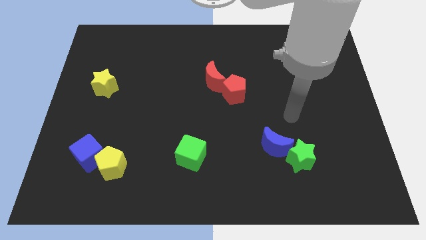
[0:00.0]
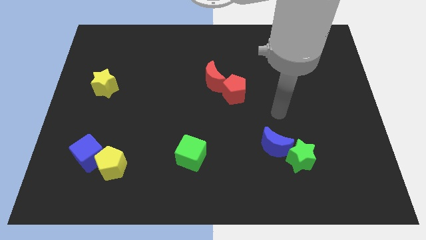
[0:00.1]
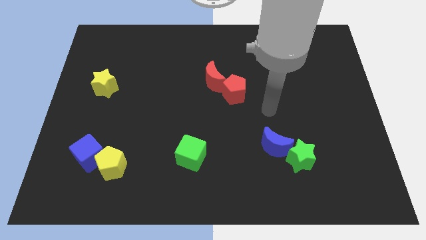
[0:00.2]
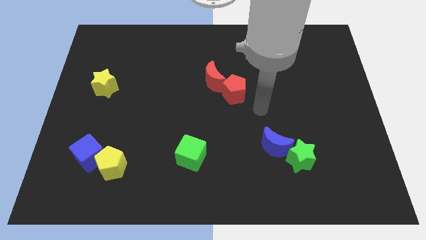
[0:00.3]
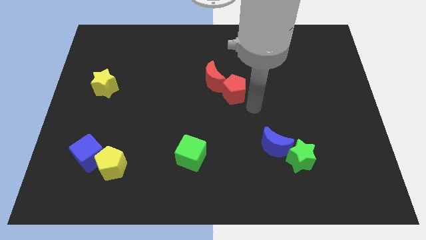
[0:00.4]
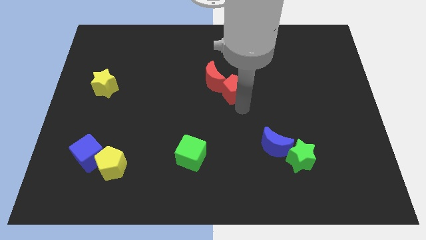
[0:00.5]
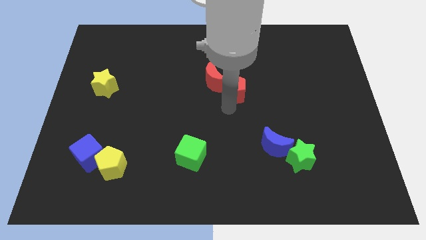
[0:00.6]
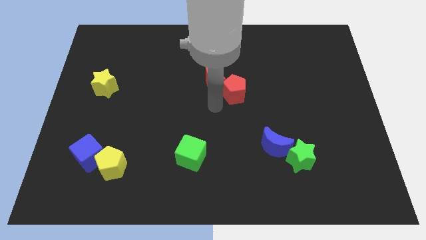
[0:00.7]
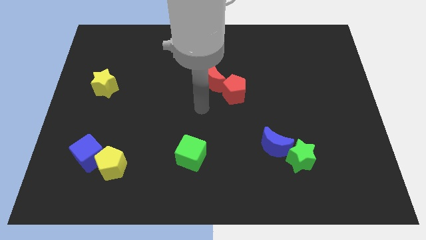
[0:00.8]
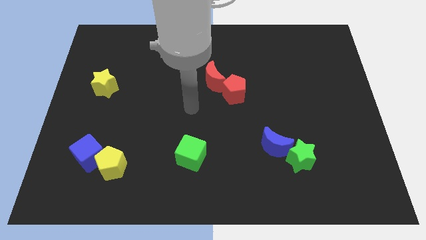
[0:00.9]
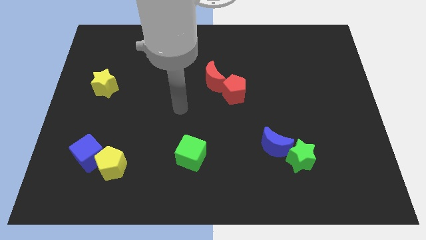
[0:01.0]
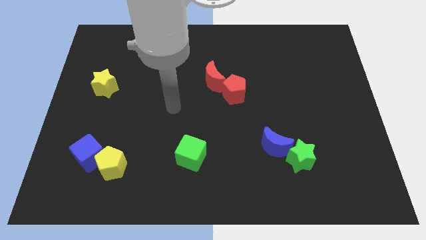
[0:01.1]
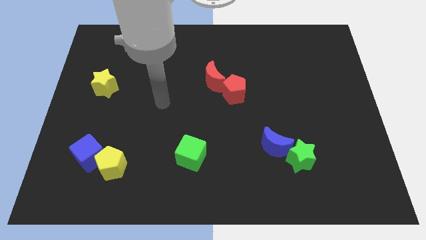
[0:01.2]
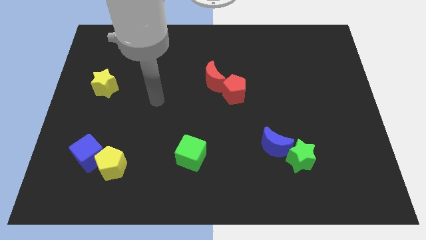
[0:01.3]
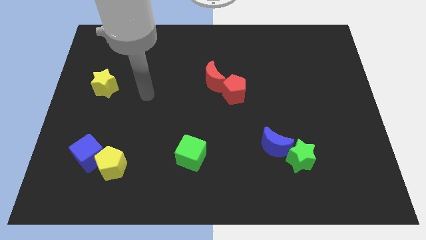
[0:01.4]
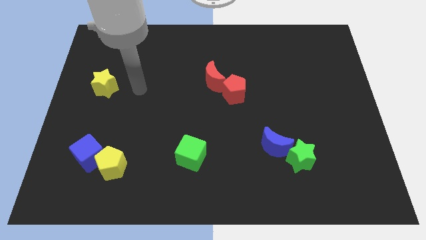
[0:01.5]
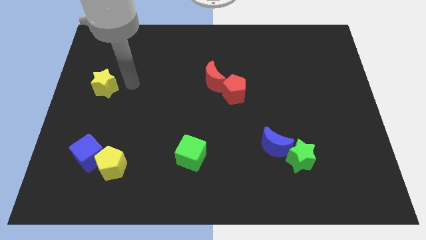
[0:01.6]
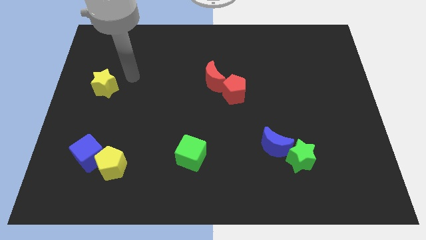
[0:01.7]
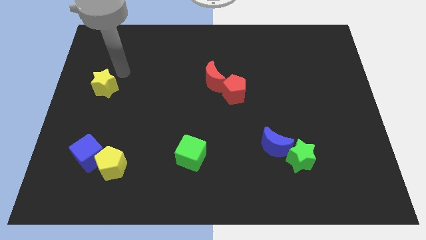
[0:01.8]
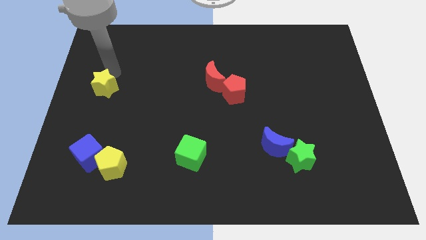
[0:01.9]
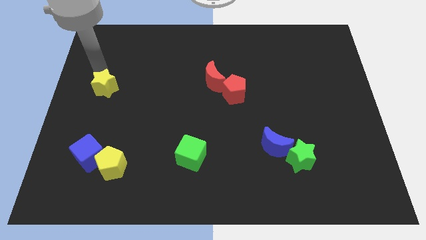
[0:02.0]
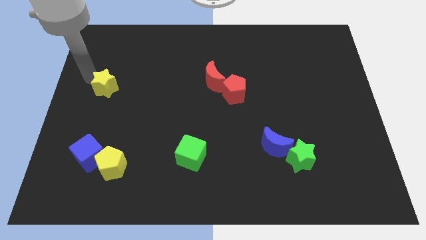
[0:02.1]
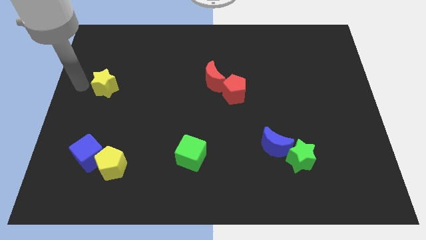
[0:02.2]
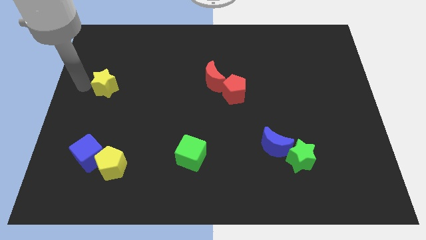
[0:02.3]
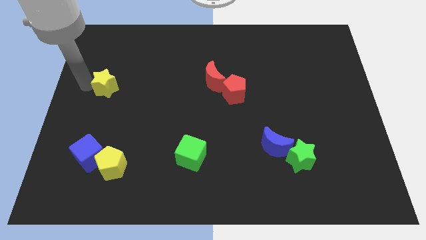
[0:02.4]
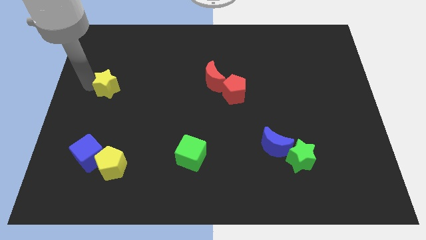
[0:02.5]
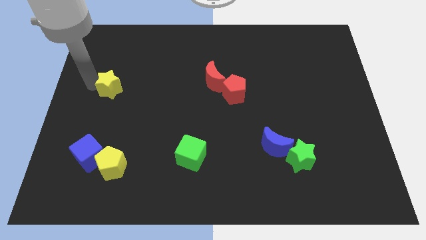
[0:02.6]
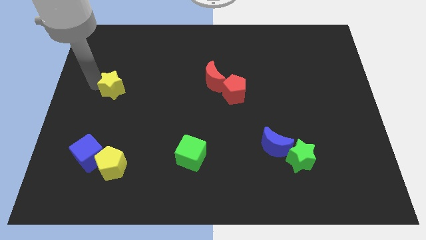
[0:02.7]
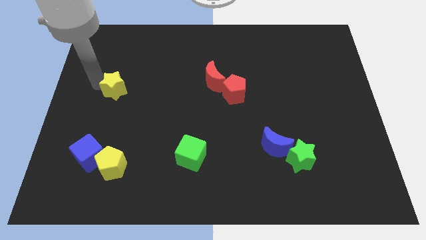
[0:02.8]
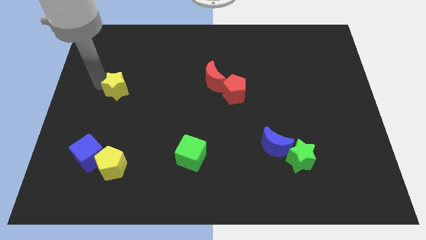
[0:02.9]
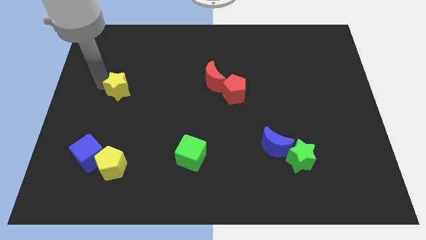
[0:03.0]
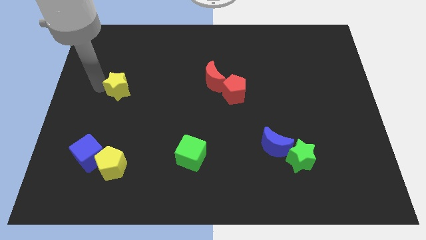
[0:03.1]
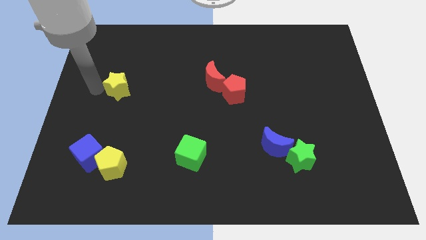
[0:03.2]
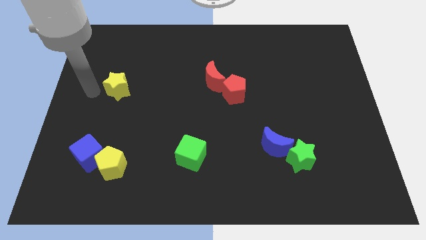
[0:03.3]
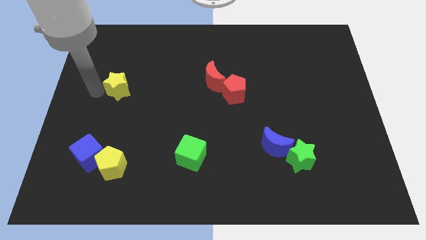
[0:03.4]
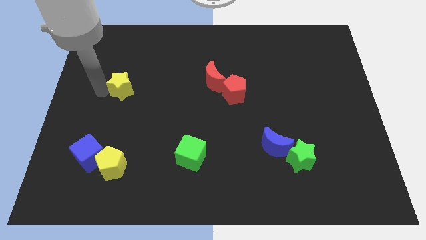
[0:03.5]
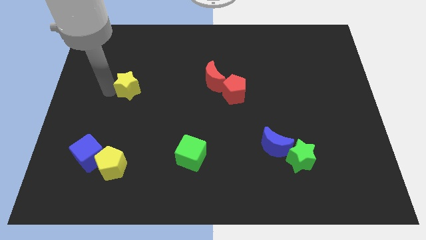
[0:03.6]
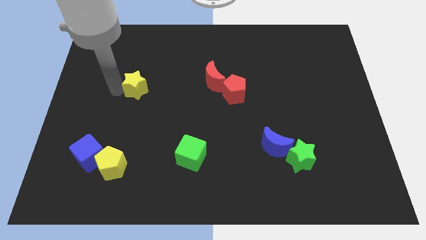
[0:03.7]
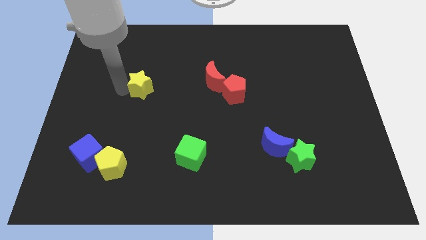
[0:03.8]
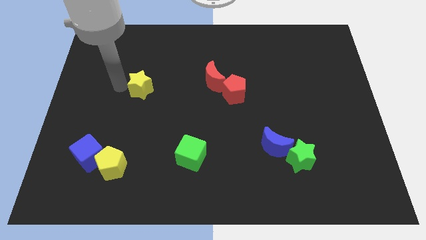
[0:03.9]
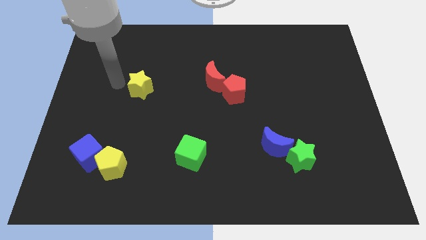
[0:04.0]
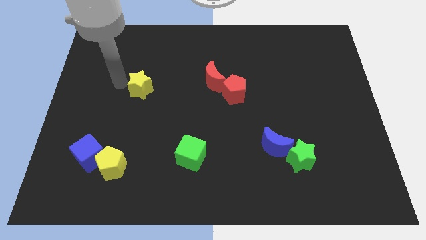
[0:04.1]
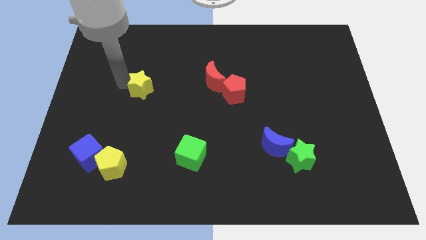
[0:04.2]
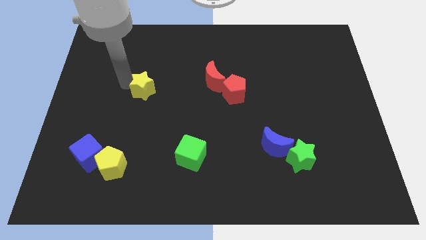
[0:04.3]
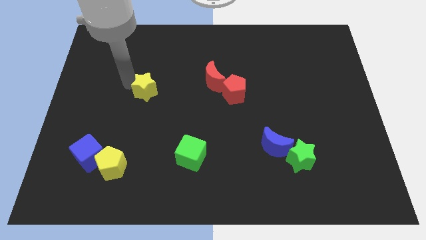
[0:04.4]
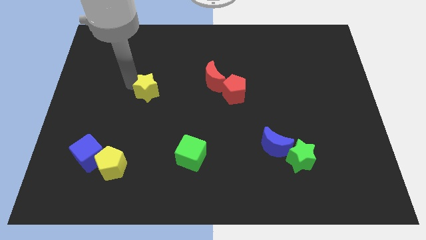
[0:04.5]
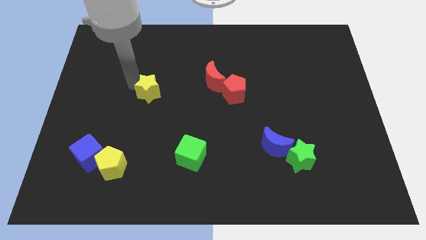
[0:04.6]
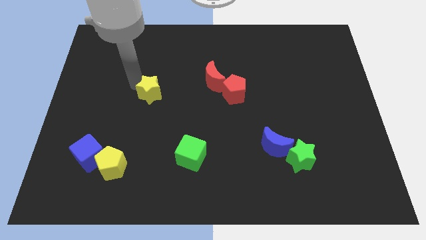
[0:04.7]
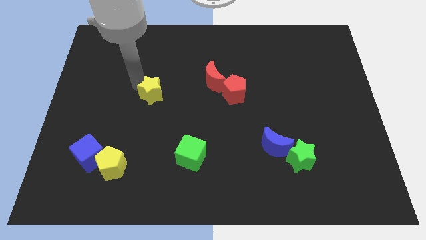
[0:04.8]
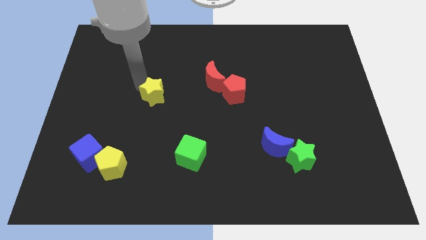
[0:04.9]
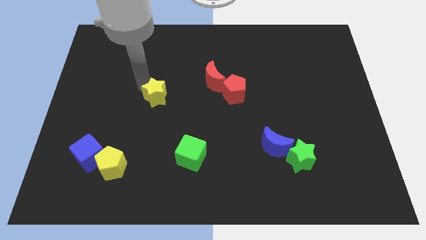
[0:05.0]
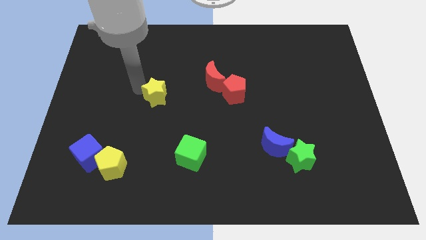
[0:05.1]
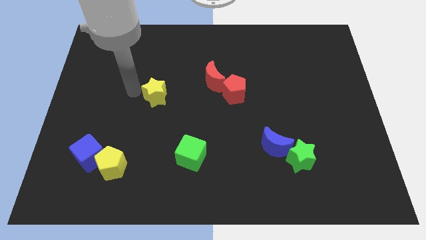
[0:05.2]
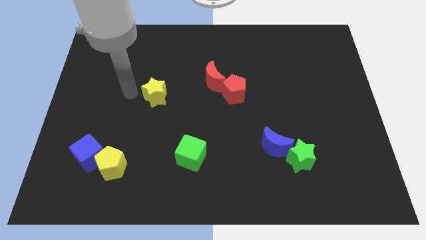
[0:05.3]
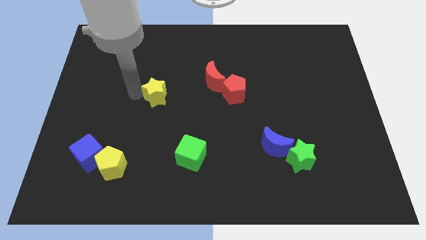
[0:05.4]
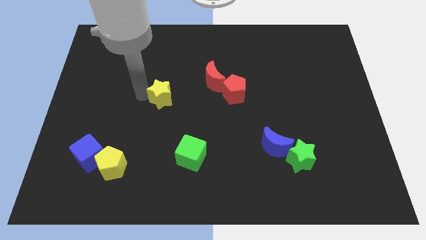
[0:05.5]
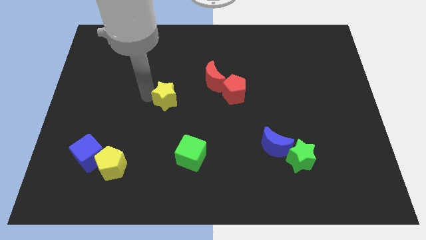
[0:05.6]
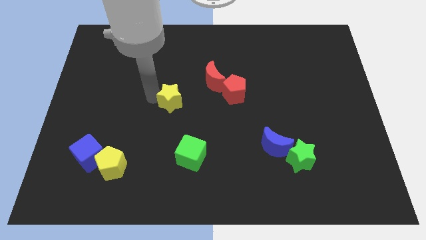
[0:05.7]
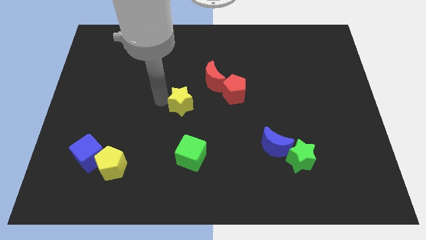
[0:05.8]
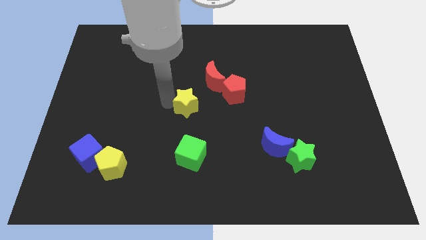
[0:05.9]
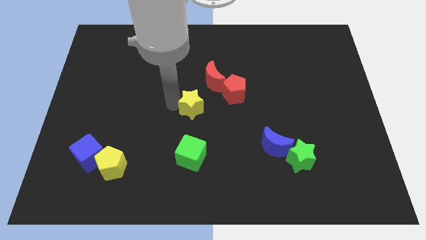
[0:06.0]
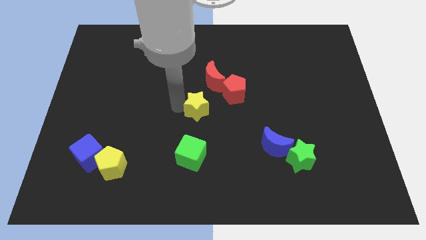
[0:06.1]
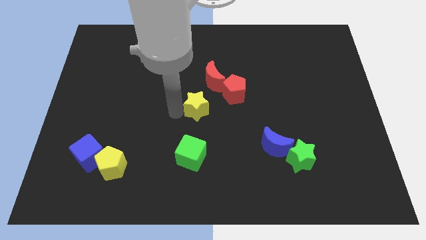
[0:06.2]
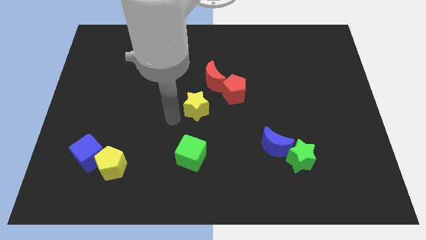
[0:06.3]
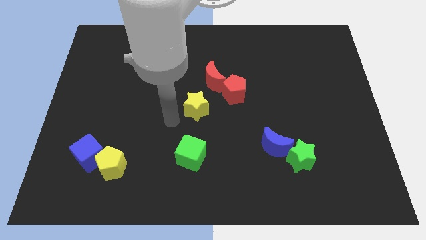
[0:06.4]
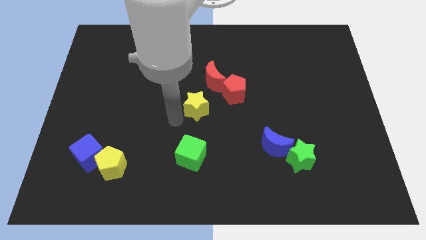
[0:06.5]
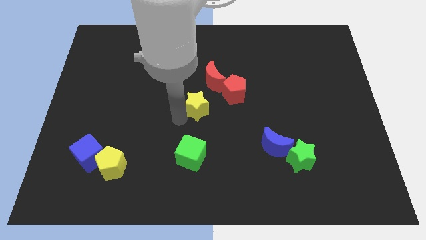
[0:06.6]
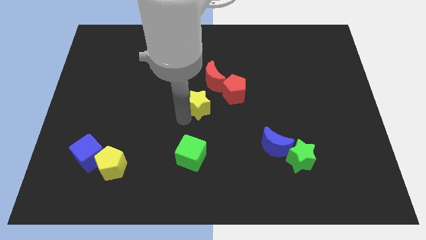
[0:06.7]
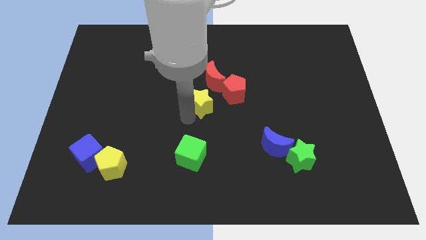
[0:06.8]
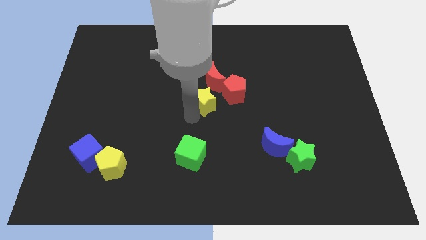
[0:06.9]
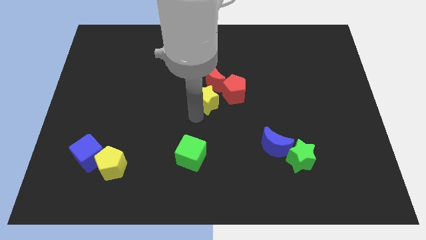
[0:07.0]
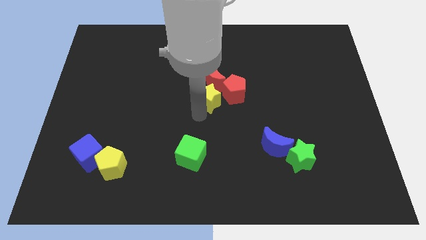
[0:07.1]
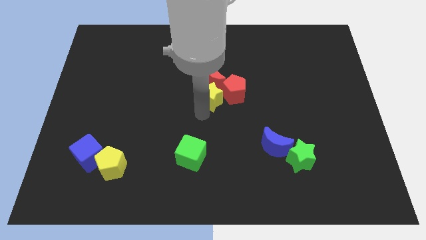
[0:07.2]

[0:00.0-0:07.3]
put the yellow star towards the red pentagon
